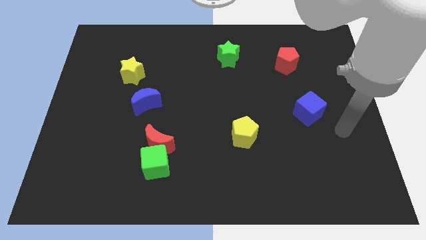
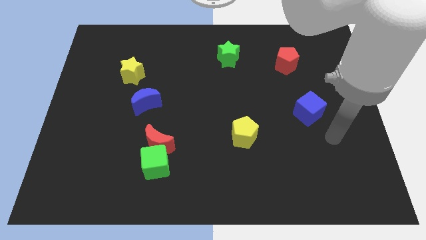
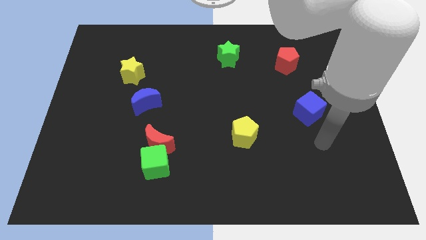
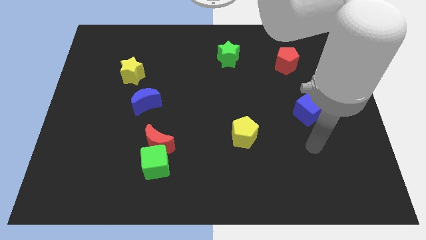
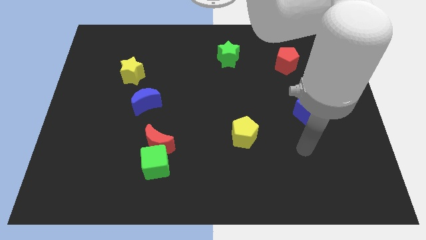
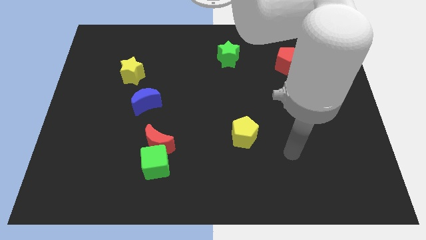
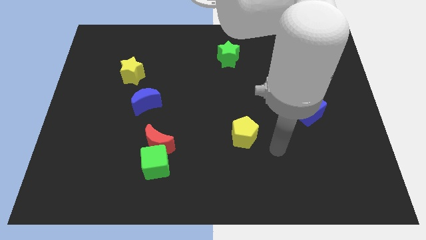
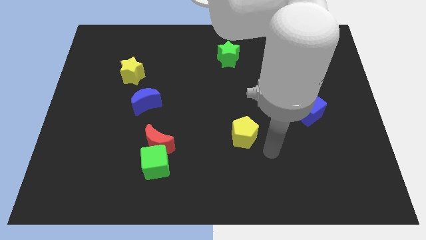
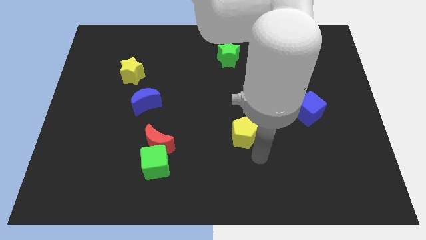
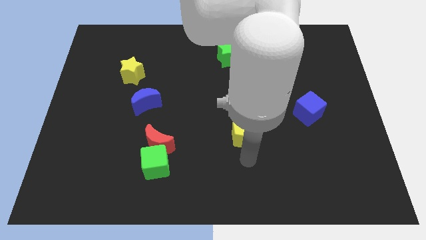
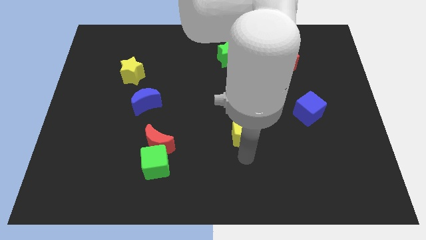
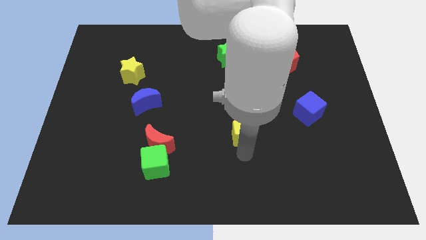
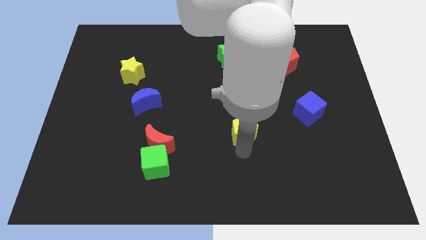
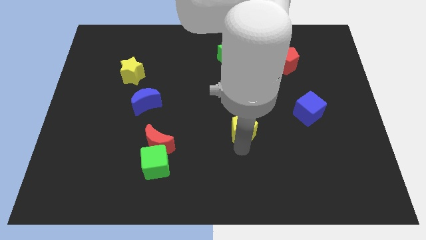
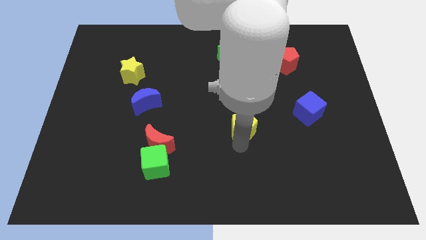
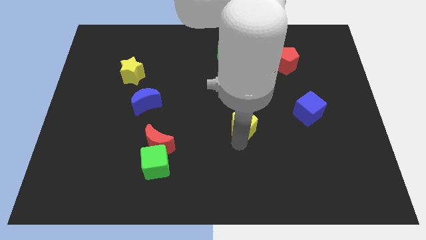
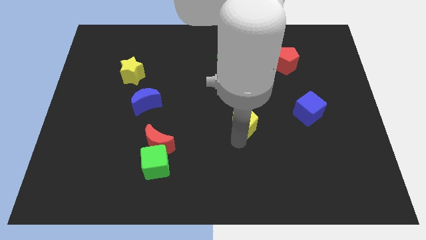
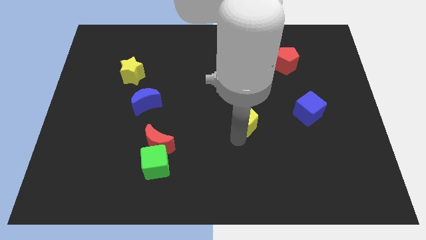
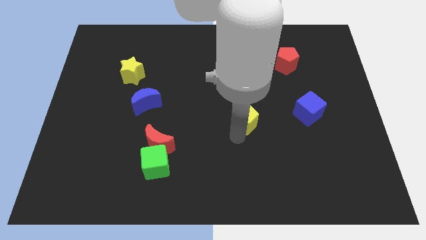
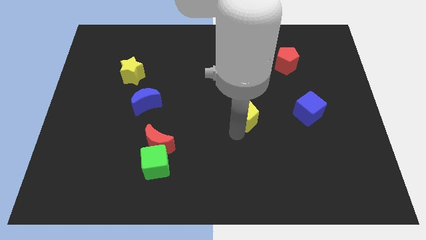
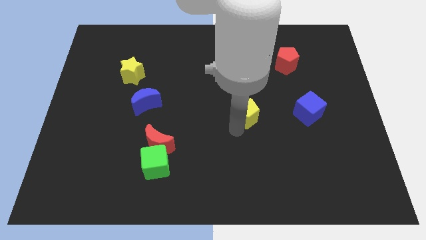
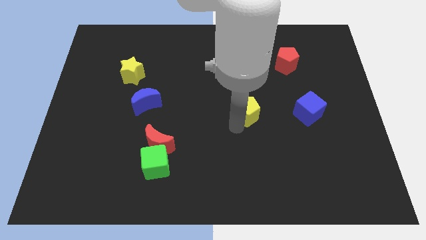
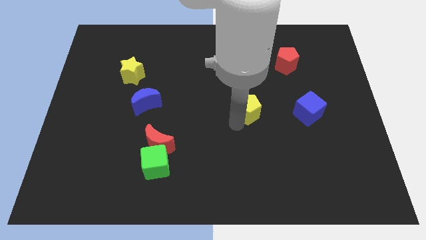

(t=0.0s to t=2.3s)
slide the yellow pentagon up slightly

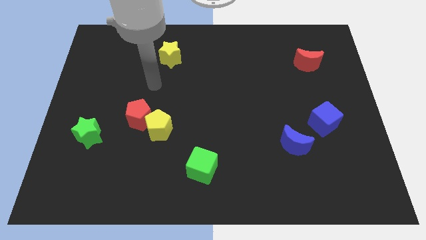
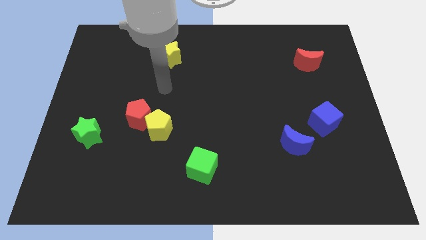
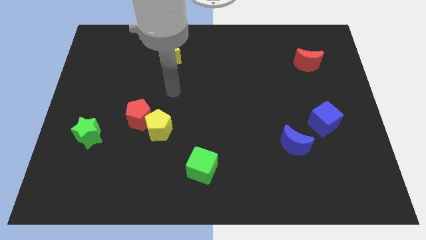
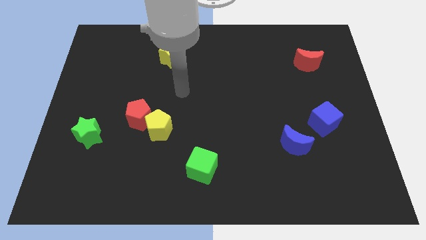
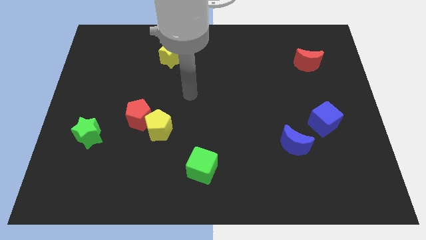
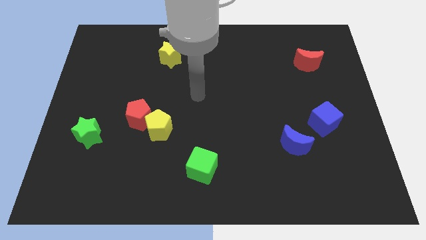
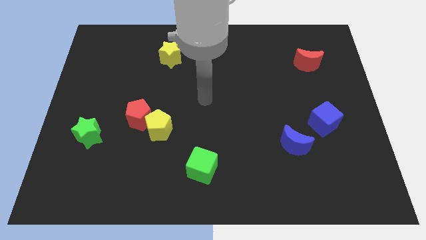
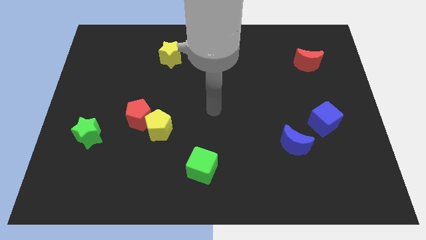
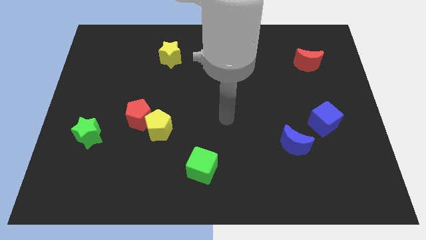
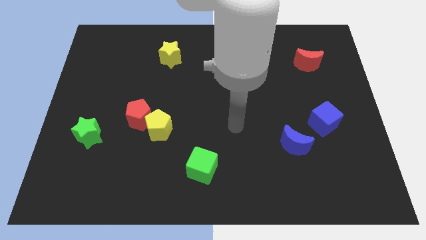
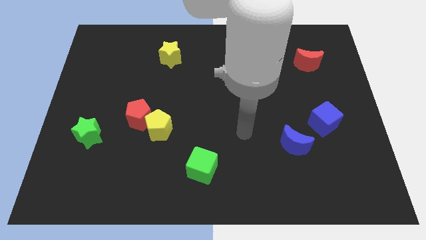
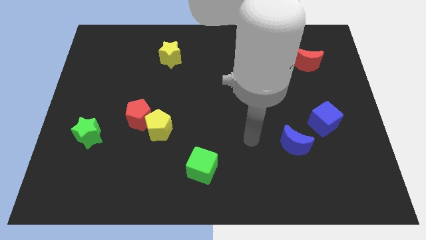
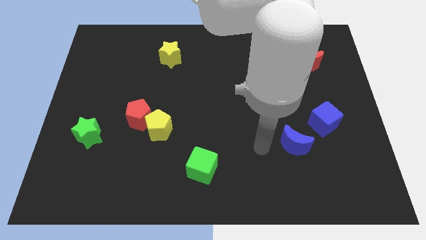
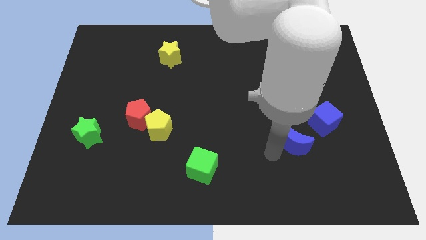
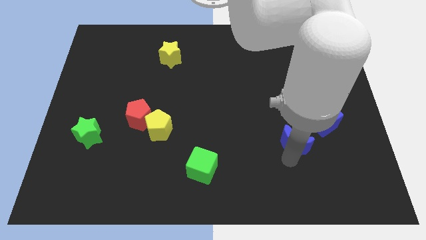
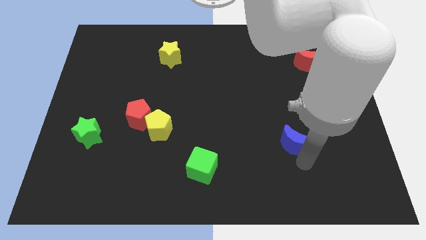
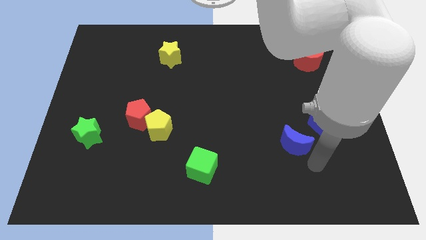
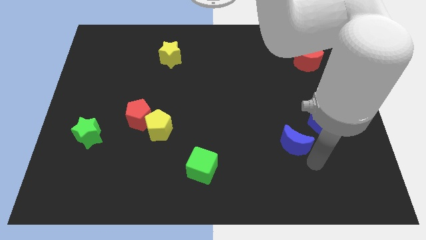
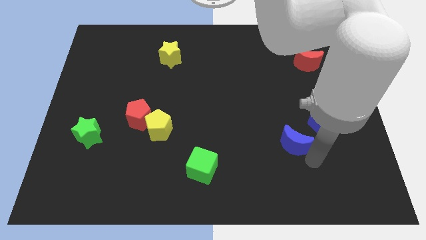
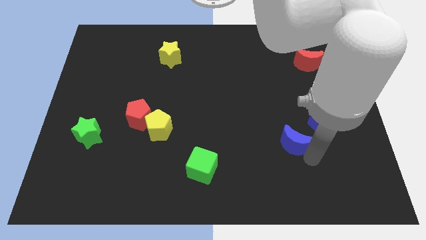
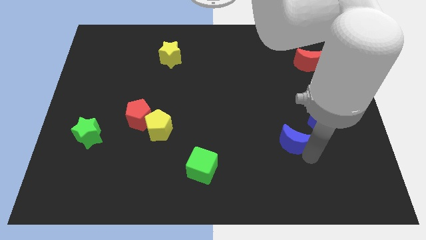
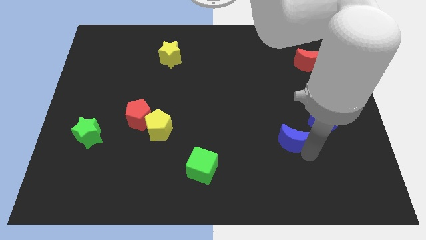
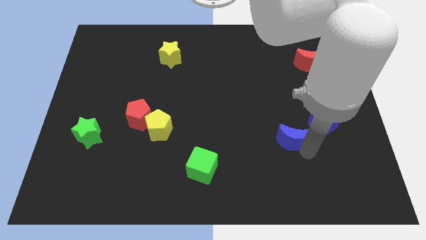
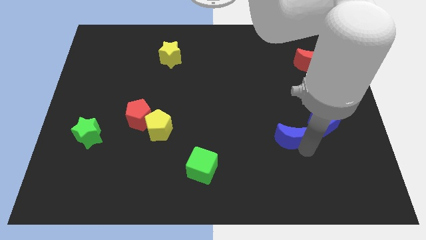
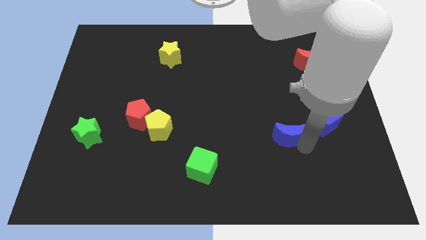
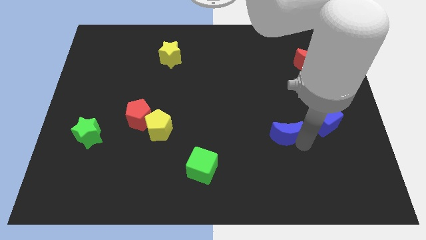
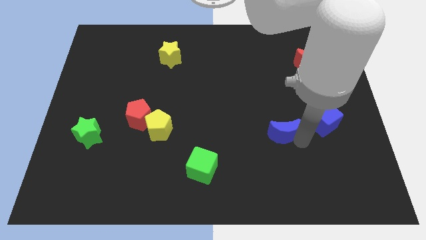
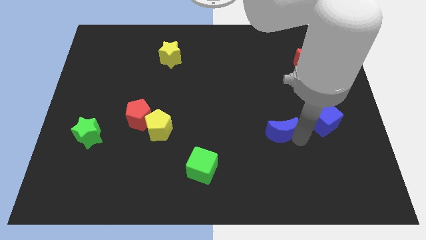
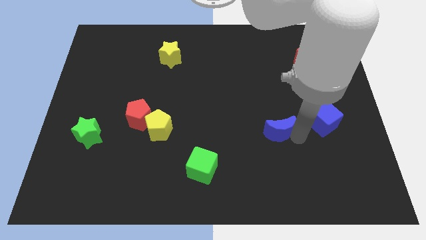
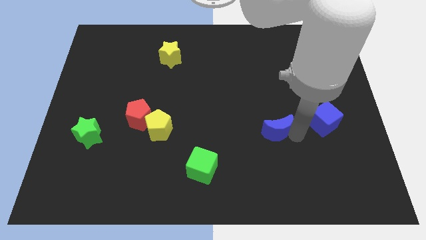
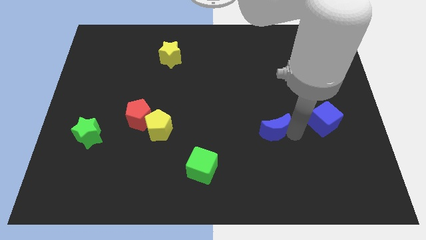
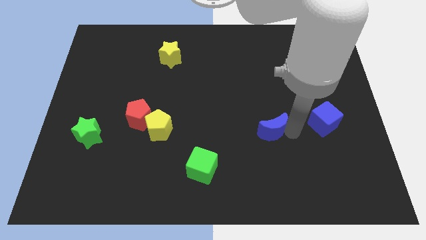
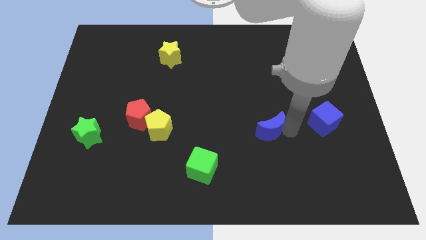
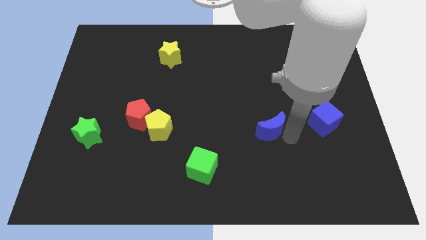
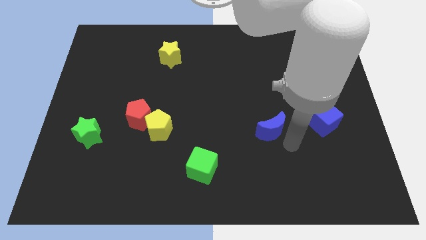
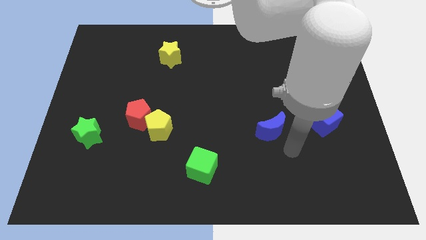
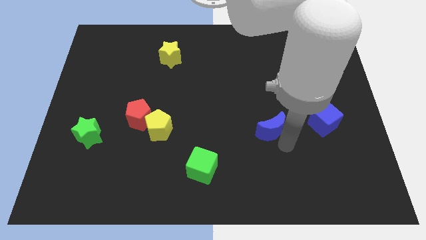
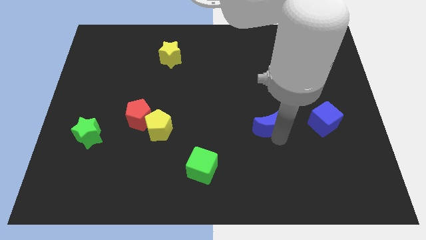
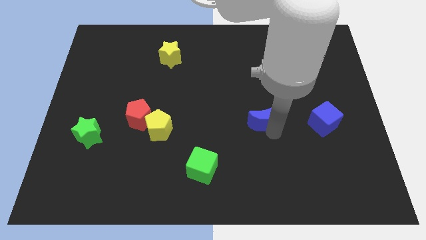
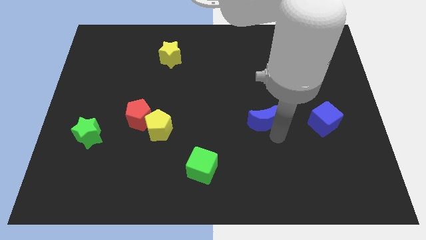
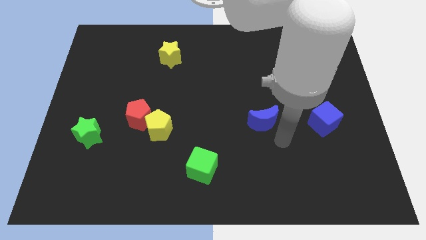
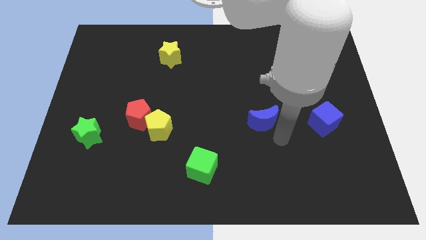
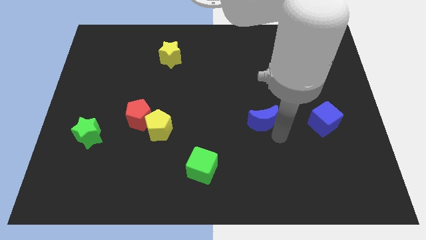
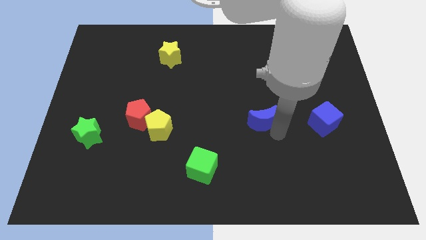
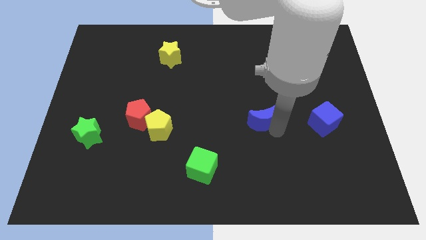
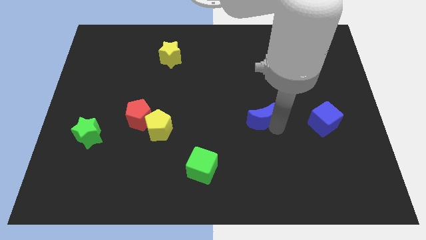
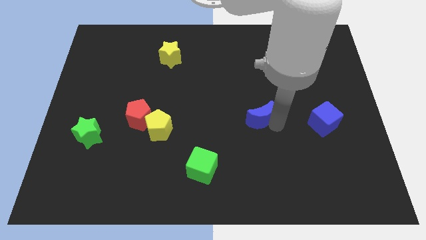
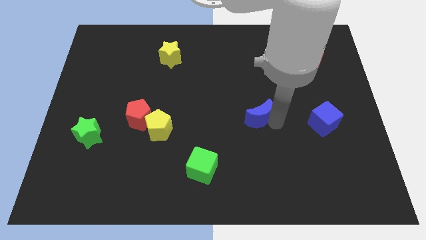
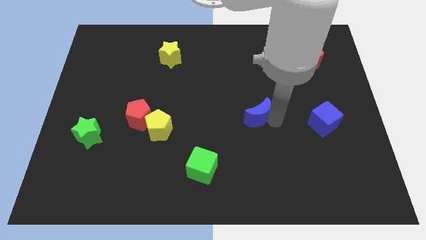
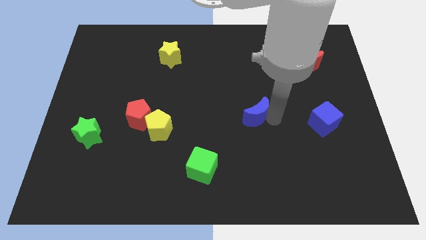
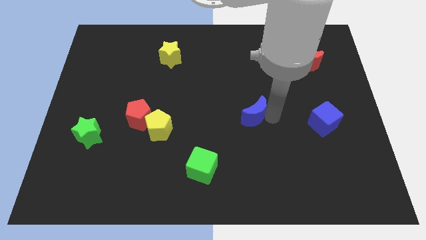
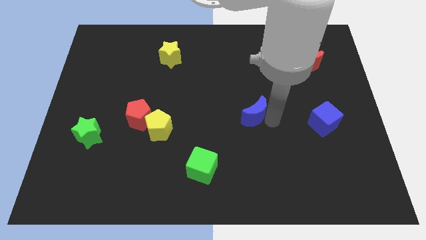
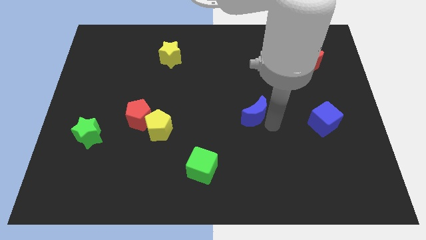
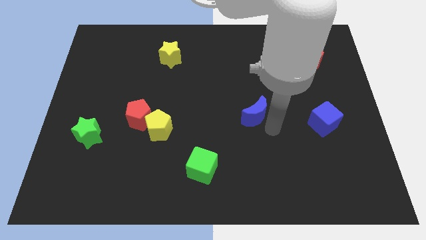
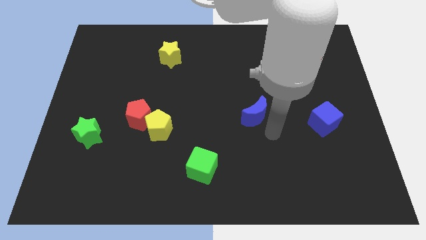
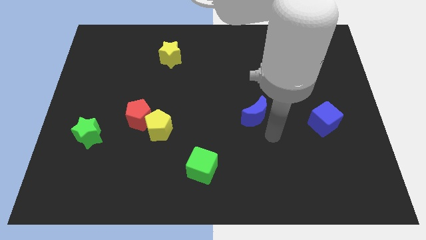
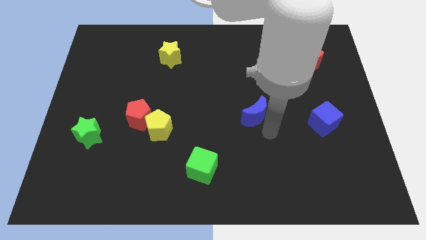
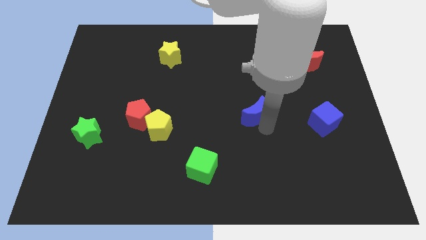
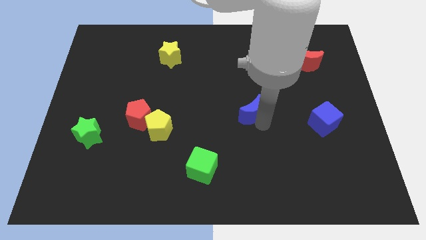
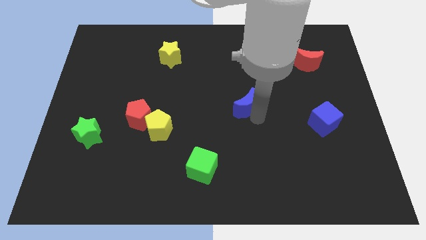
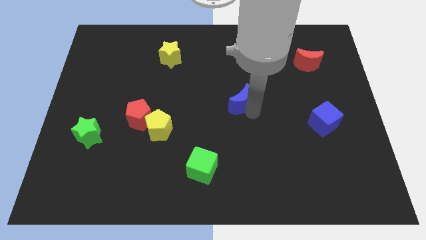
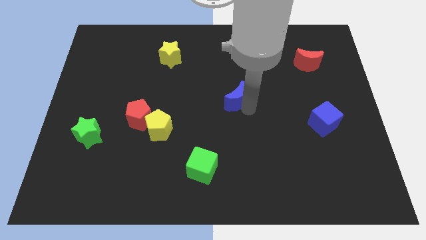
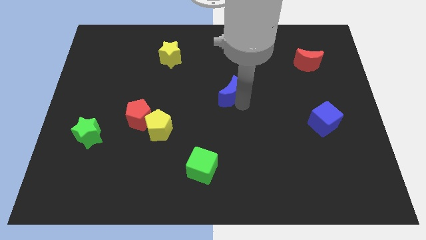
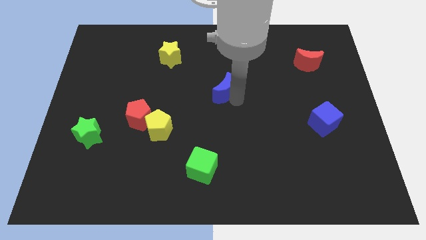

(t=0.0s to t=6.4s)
push the blue moon diagonally up and to the left
